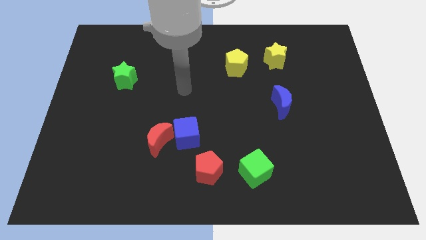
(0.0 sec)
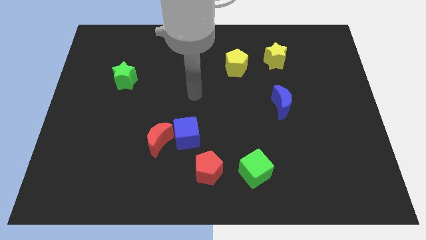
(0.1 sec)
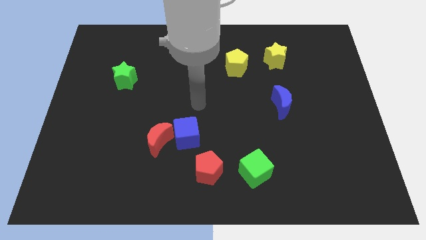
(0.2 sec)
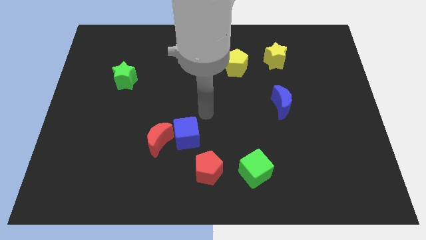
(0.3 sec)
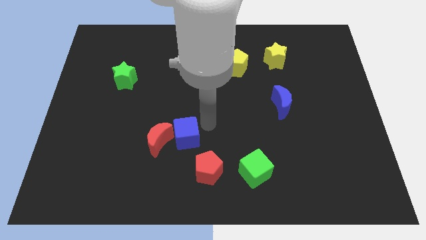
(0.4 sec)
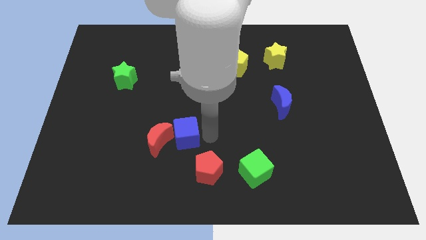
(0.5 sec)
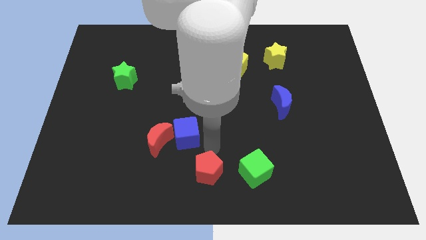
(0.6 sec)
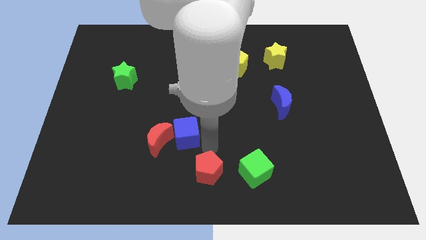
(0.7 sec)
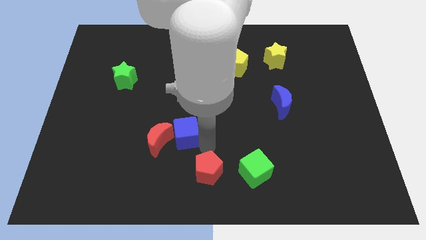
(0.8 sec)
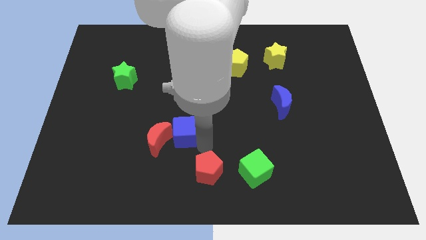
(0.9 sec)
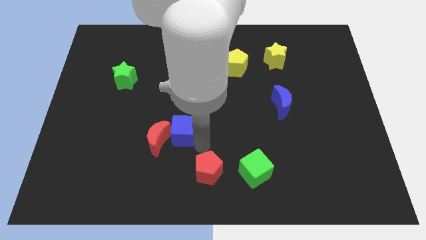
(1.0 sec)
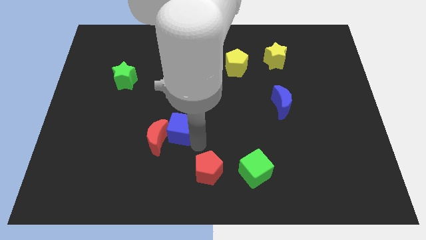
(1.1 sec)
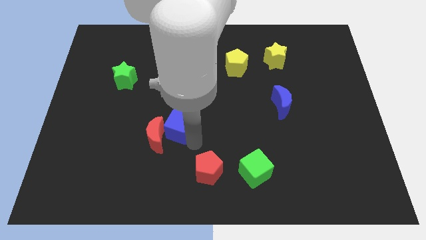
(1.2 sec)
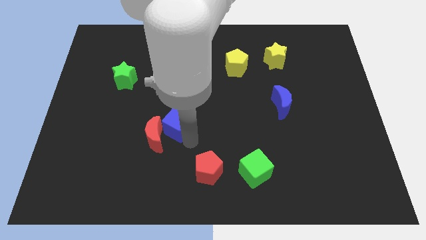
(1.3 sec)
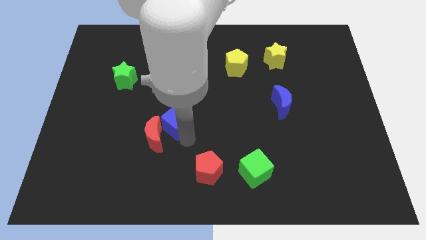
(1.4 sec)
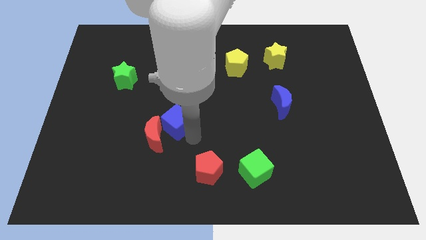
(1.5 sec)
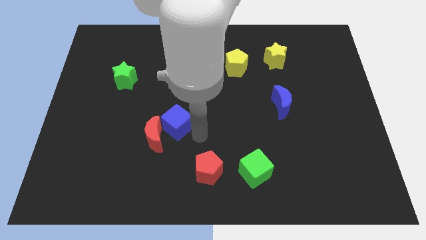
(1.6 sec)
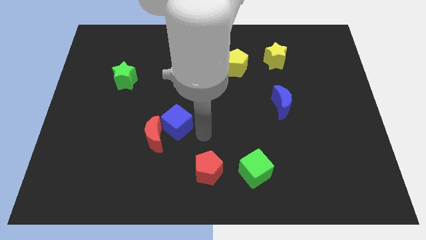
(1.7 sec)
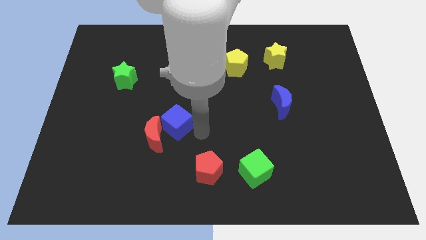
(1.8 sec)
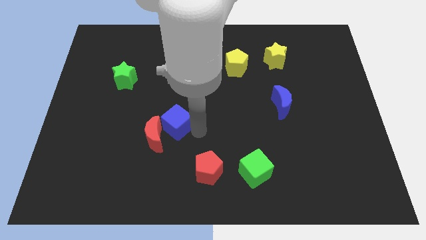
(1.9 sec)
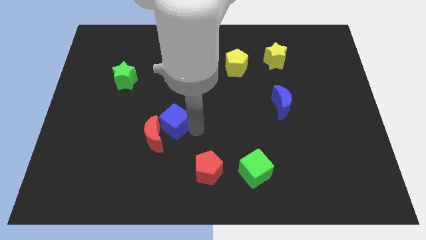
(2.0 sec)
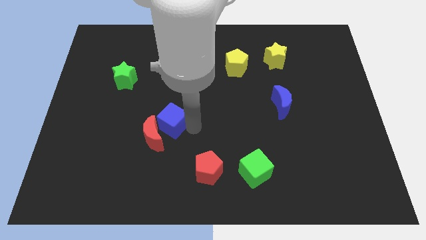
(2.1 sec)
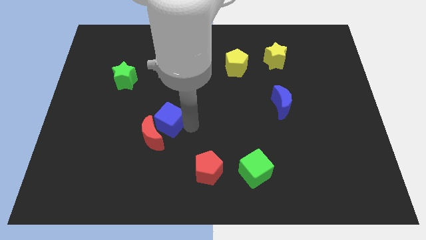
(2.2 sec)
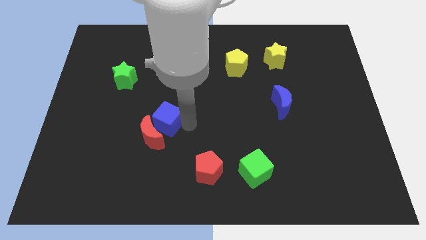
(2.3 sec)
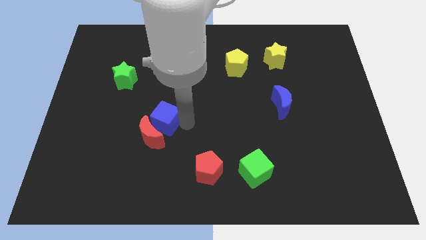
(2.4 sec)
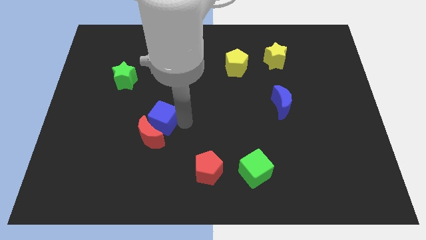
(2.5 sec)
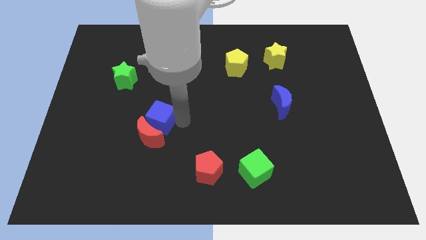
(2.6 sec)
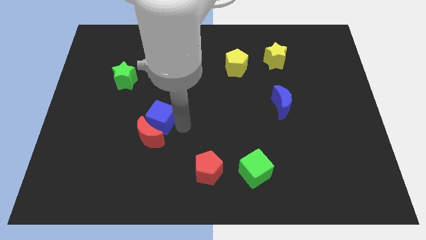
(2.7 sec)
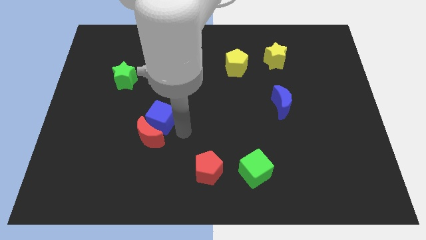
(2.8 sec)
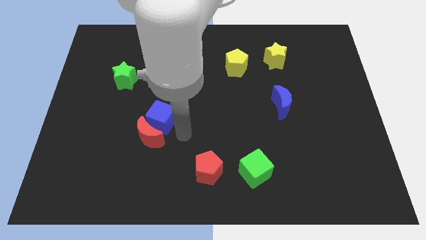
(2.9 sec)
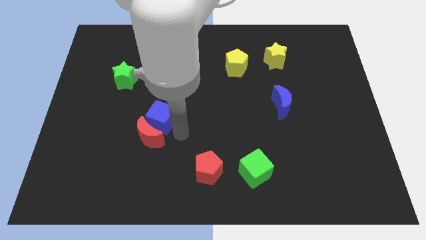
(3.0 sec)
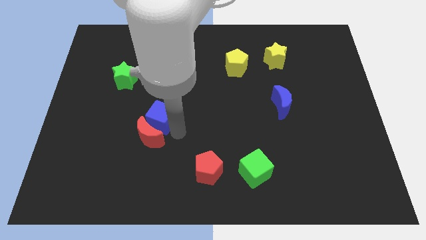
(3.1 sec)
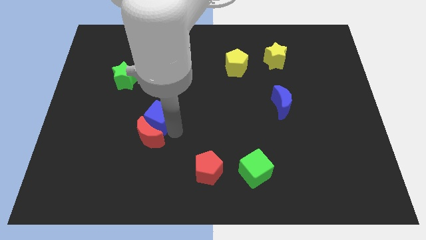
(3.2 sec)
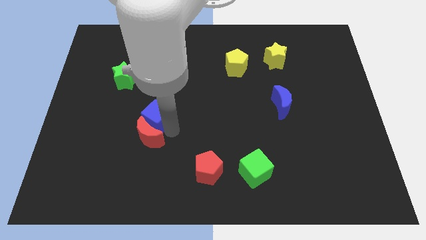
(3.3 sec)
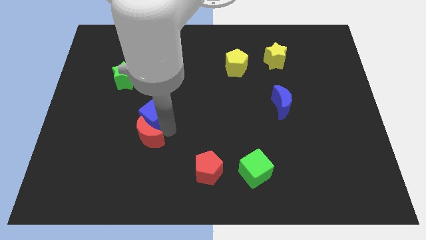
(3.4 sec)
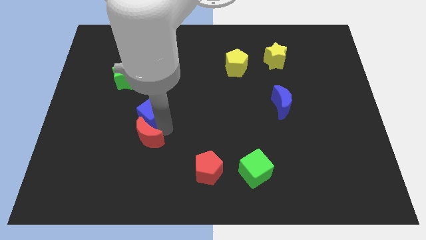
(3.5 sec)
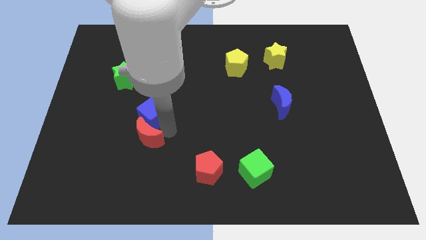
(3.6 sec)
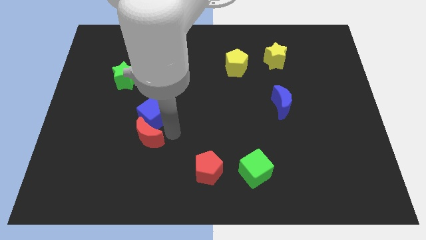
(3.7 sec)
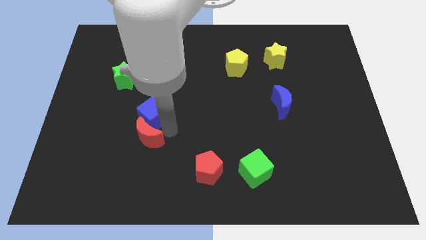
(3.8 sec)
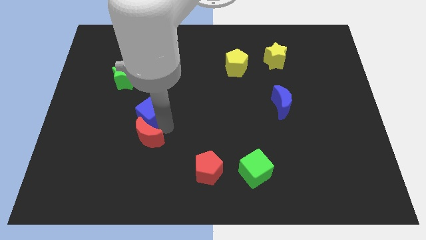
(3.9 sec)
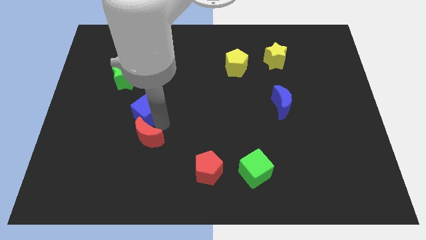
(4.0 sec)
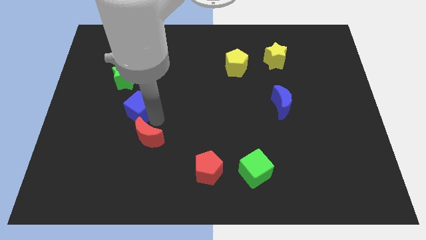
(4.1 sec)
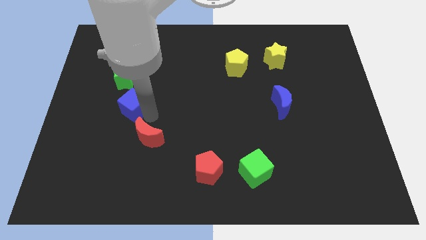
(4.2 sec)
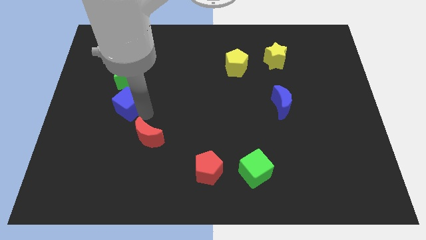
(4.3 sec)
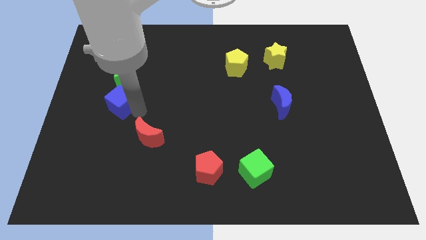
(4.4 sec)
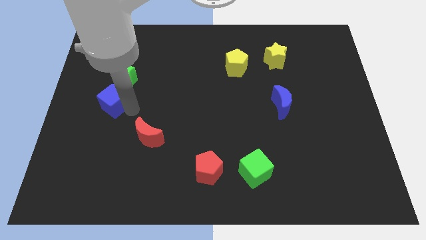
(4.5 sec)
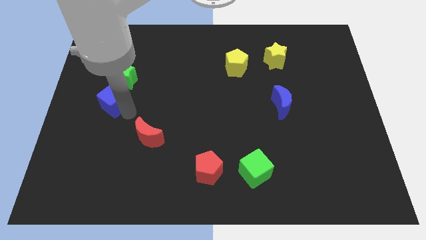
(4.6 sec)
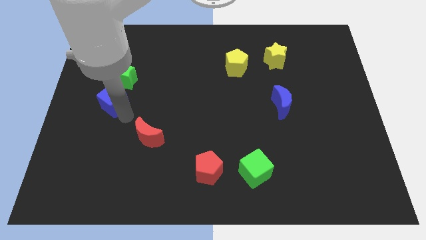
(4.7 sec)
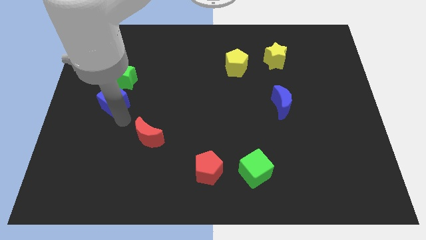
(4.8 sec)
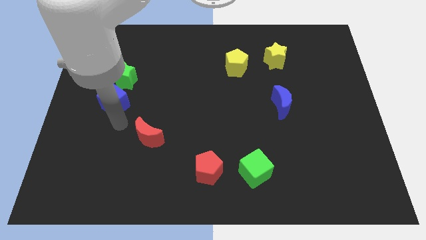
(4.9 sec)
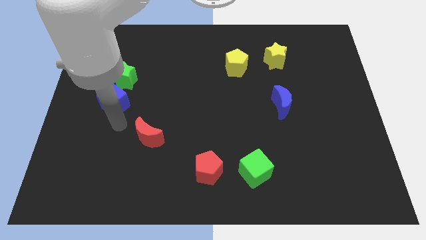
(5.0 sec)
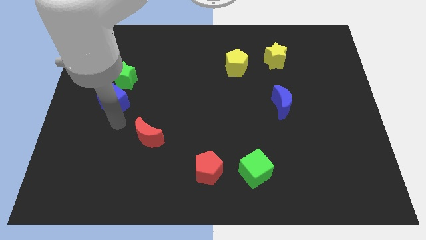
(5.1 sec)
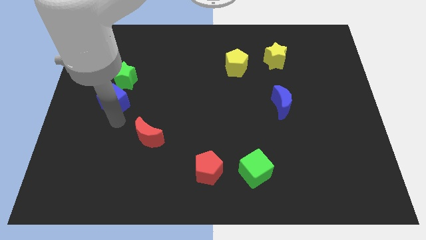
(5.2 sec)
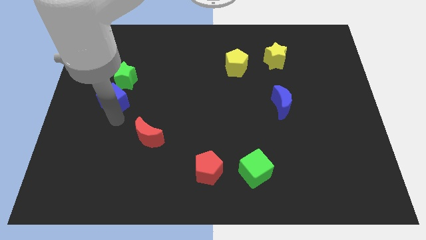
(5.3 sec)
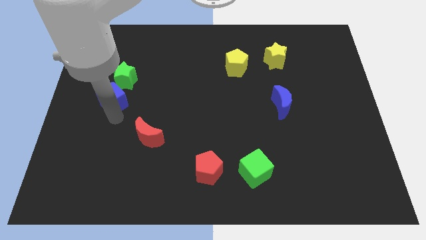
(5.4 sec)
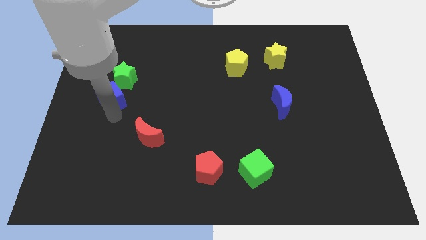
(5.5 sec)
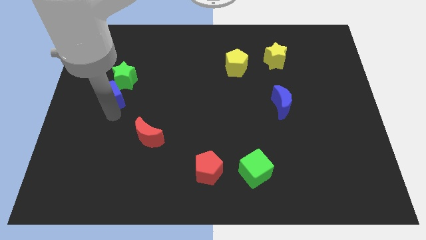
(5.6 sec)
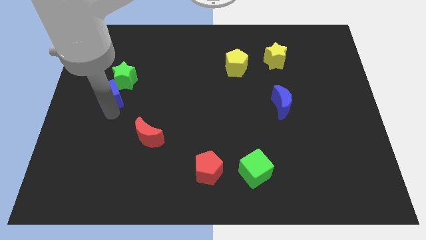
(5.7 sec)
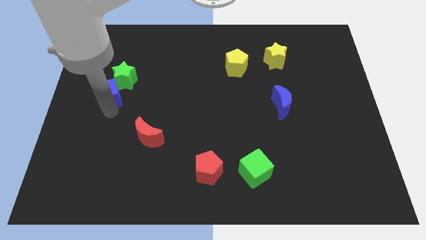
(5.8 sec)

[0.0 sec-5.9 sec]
slide the blue cube up and then to the left

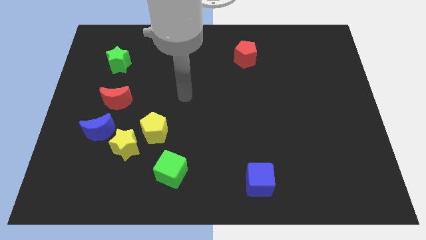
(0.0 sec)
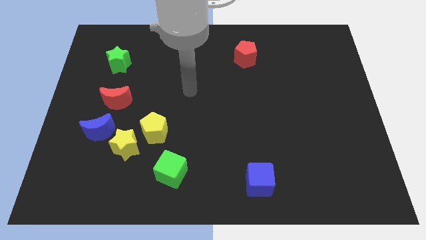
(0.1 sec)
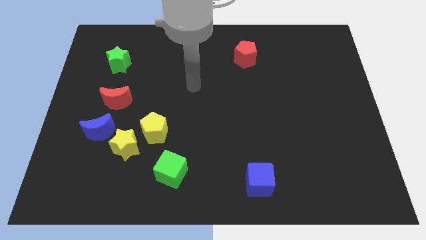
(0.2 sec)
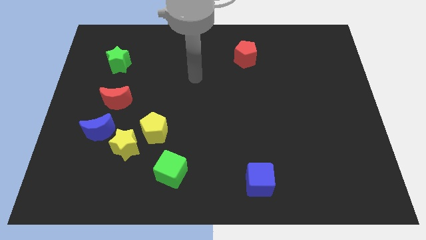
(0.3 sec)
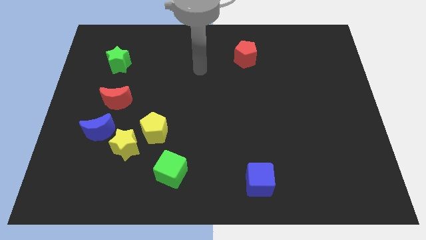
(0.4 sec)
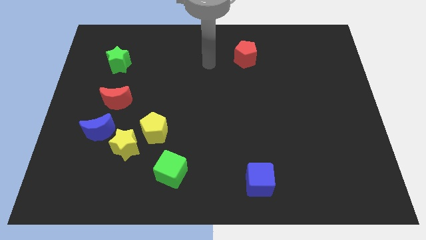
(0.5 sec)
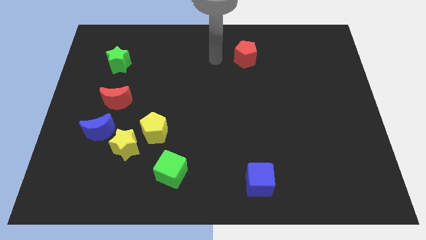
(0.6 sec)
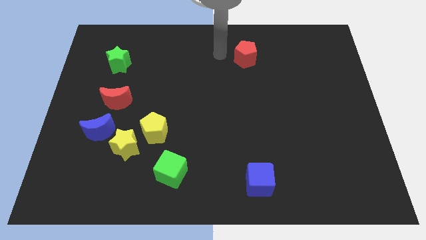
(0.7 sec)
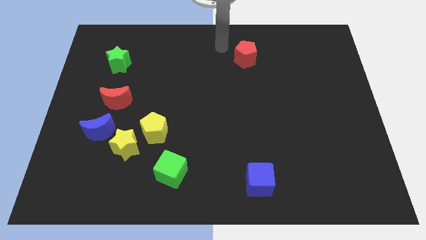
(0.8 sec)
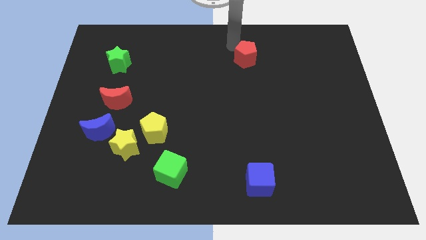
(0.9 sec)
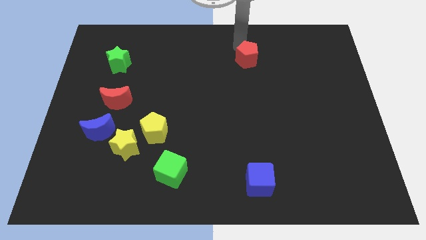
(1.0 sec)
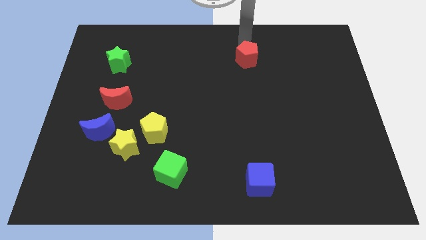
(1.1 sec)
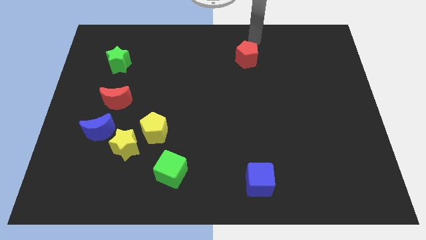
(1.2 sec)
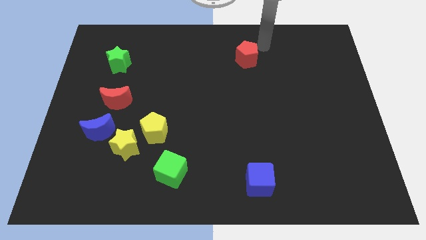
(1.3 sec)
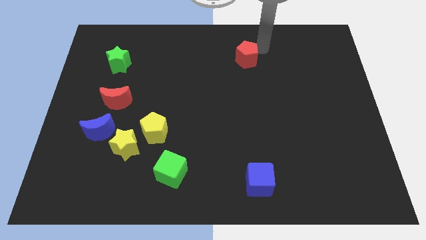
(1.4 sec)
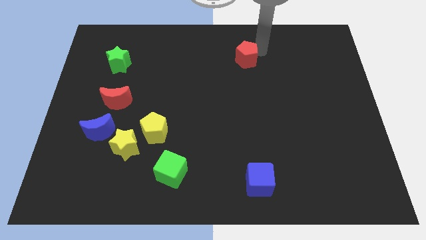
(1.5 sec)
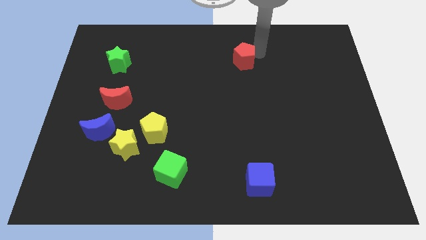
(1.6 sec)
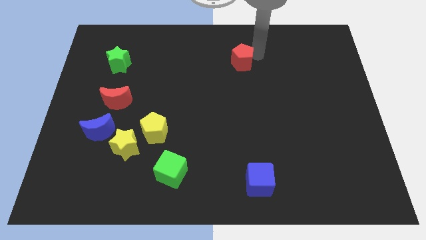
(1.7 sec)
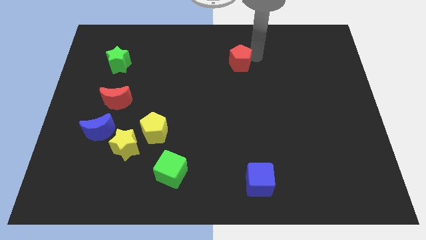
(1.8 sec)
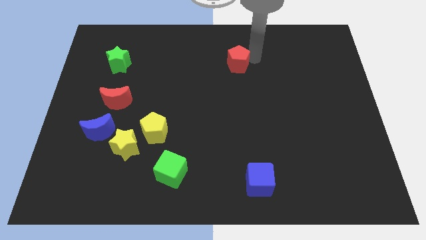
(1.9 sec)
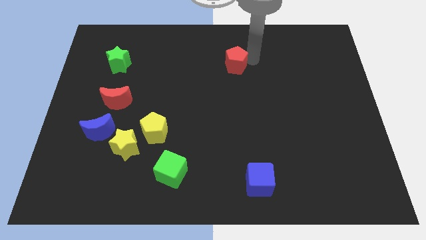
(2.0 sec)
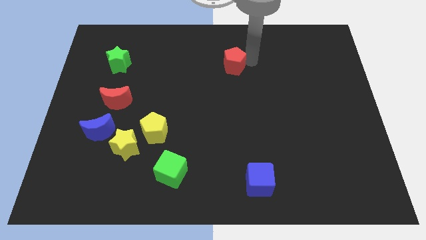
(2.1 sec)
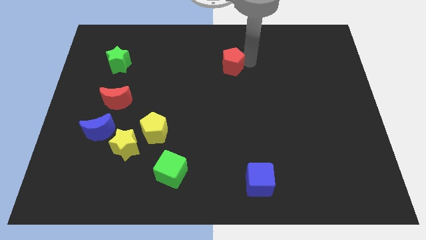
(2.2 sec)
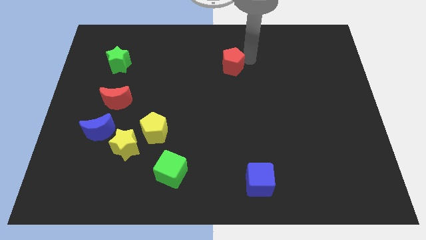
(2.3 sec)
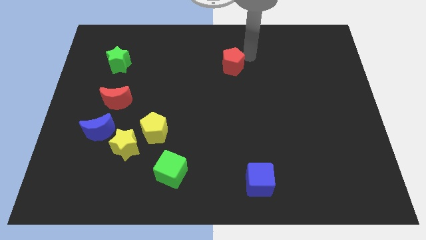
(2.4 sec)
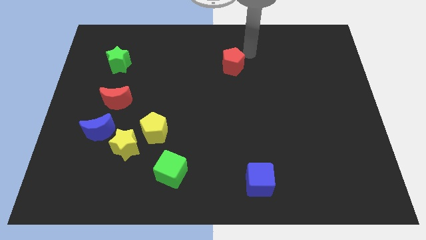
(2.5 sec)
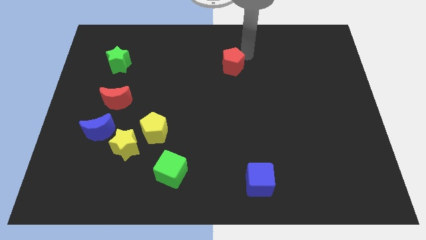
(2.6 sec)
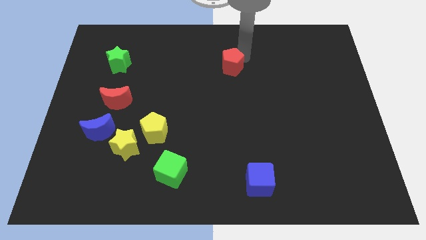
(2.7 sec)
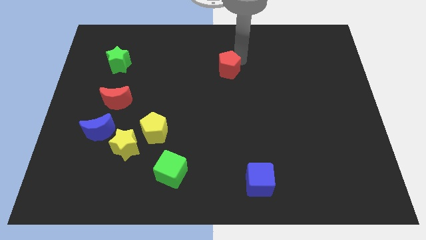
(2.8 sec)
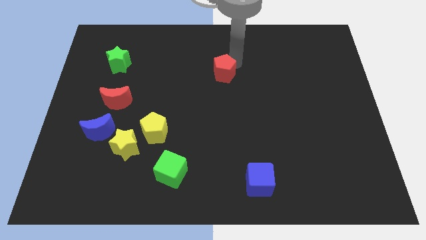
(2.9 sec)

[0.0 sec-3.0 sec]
push the red pentagon diagonally downwards and to the left a little bit
